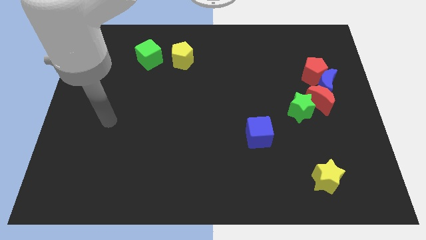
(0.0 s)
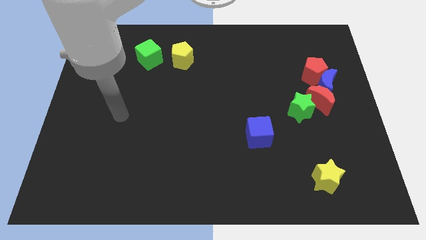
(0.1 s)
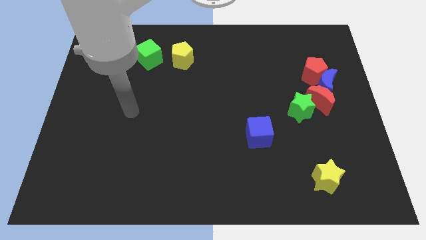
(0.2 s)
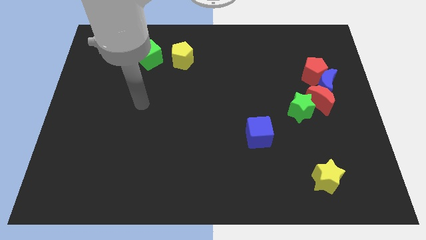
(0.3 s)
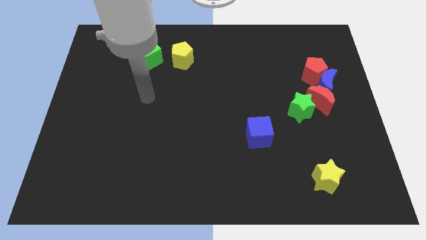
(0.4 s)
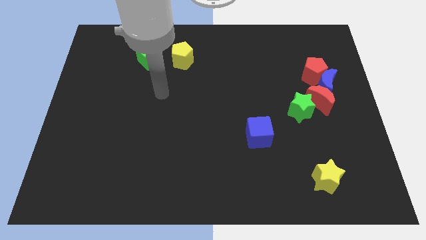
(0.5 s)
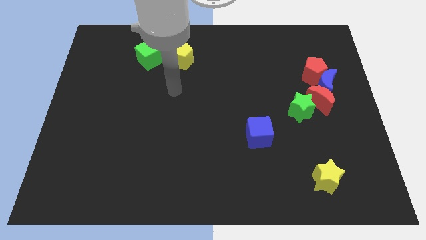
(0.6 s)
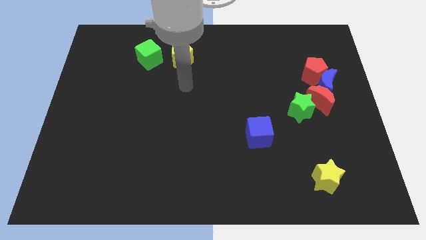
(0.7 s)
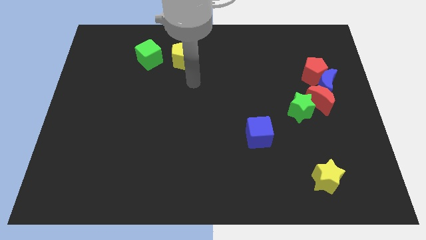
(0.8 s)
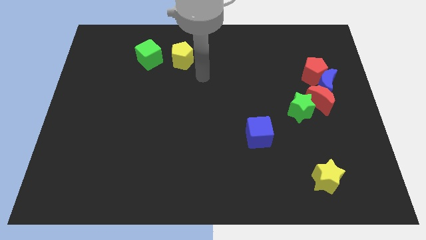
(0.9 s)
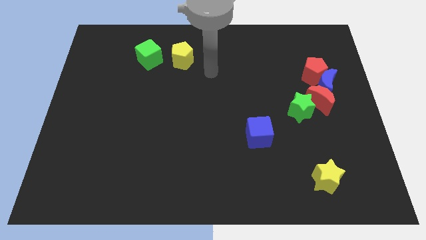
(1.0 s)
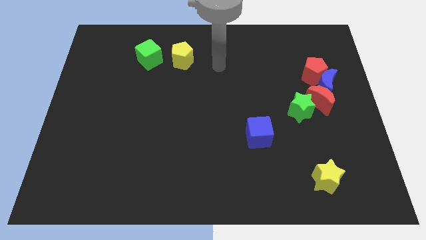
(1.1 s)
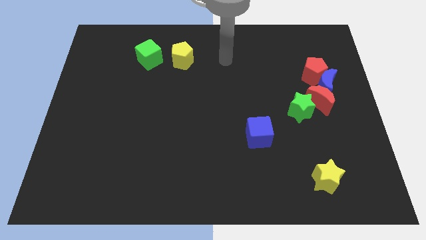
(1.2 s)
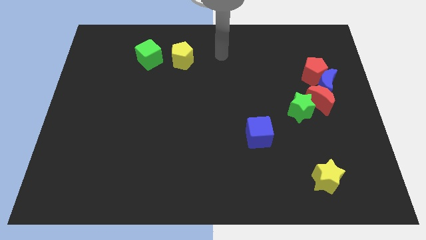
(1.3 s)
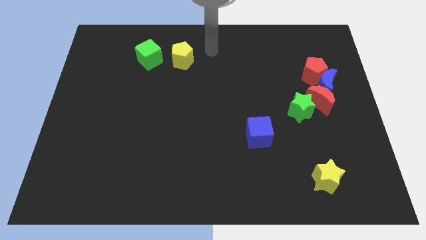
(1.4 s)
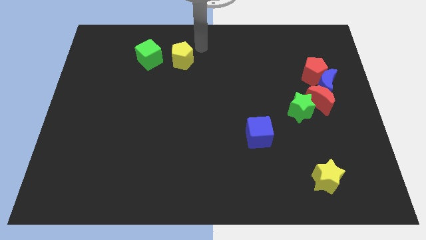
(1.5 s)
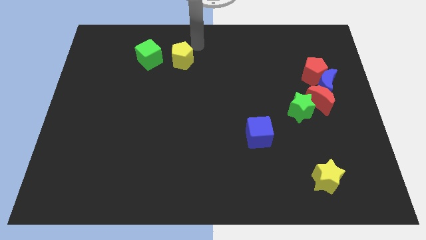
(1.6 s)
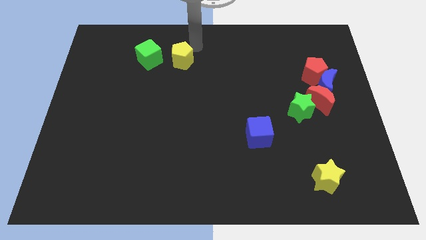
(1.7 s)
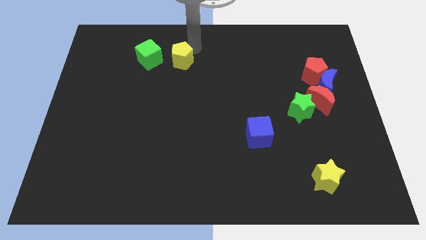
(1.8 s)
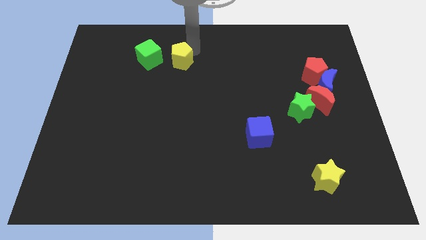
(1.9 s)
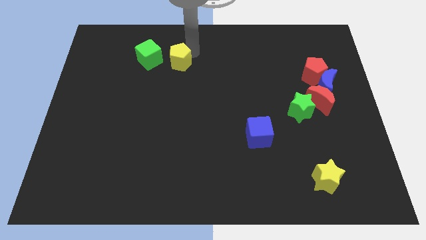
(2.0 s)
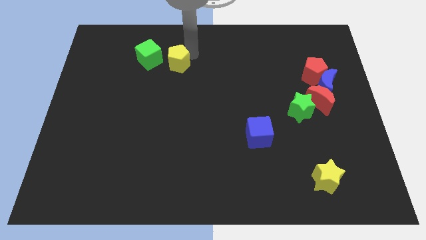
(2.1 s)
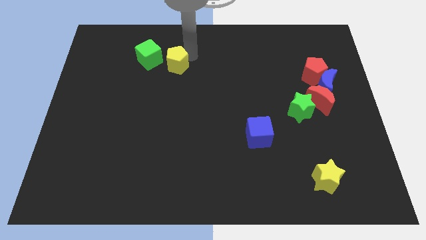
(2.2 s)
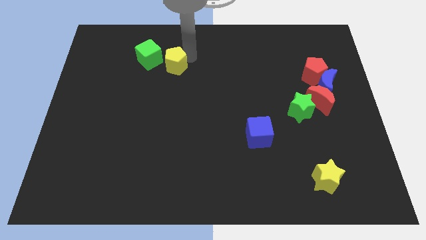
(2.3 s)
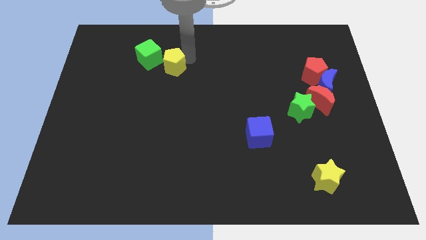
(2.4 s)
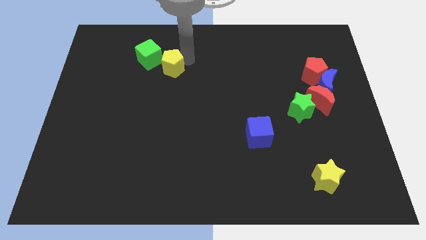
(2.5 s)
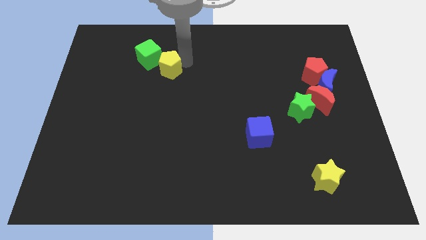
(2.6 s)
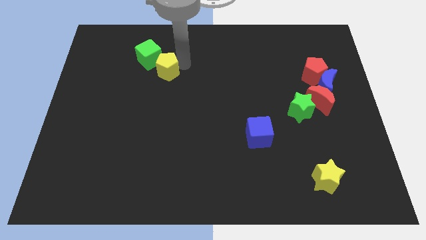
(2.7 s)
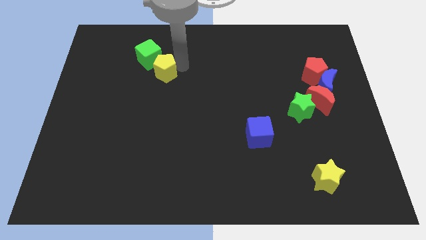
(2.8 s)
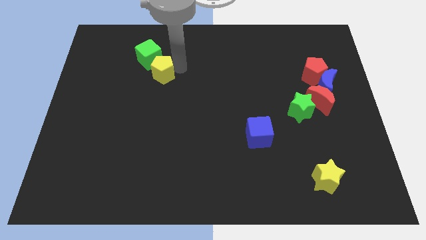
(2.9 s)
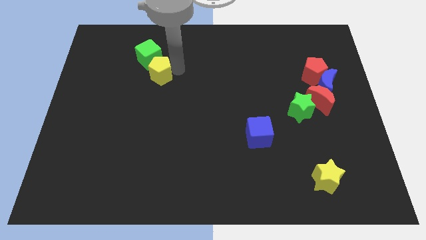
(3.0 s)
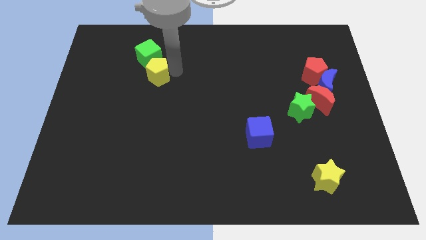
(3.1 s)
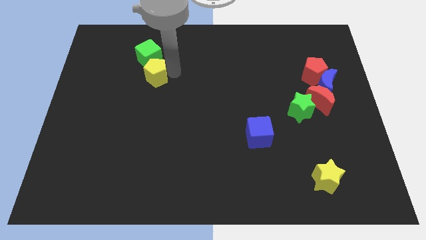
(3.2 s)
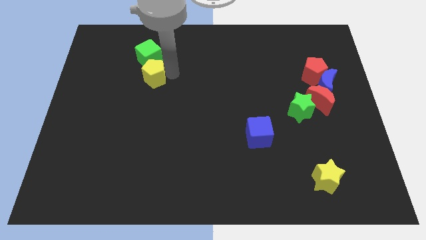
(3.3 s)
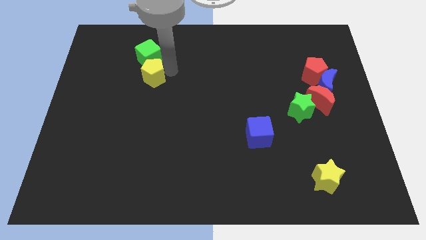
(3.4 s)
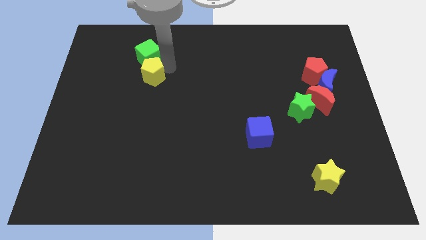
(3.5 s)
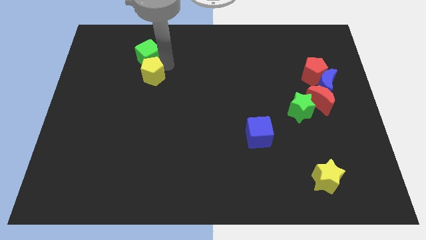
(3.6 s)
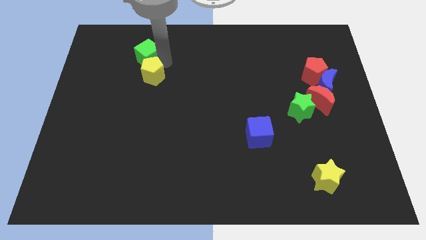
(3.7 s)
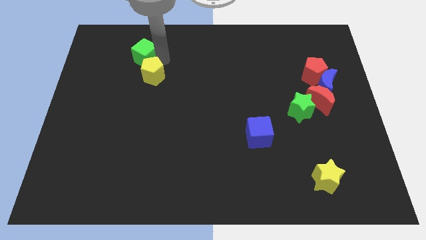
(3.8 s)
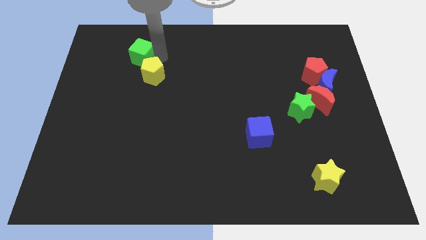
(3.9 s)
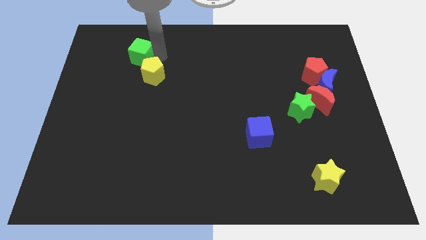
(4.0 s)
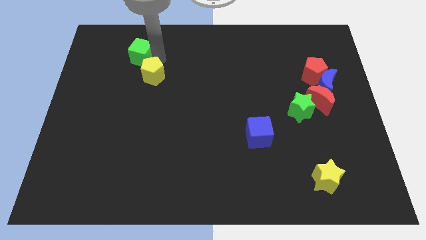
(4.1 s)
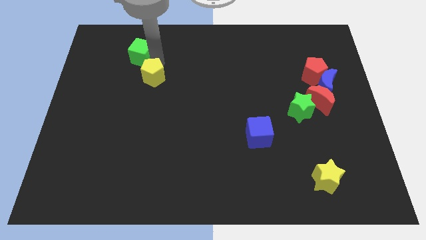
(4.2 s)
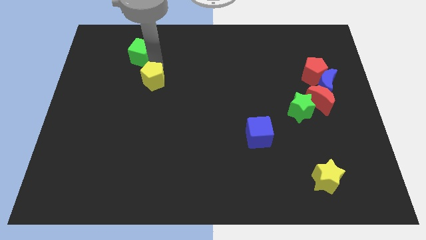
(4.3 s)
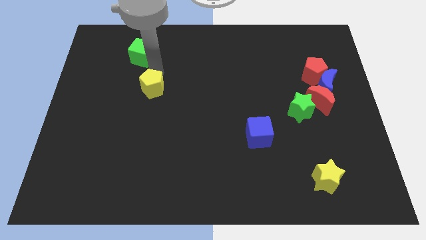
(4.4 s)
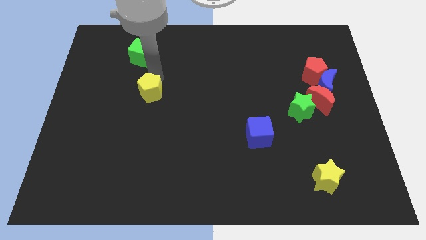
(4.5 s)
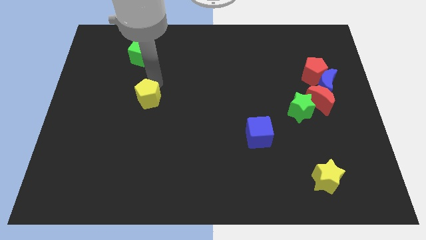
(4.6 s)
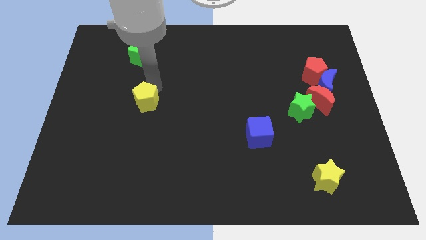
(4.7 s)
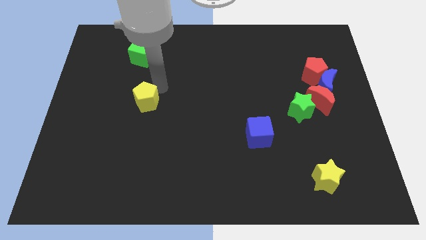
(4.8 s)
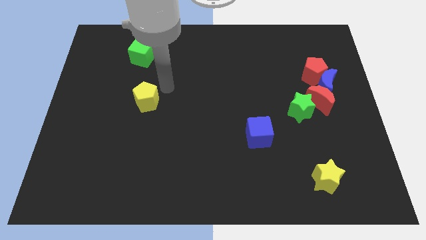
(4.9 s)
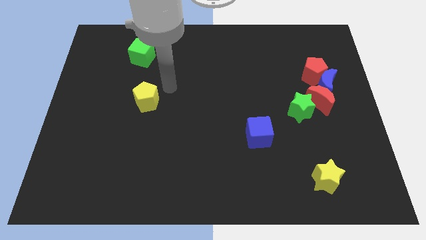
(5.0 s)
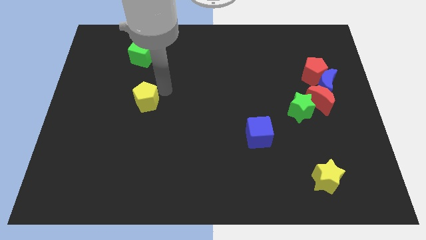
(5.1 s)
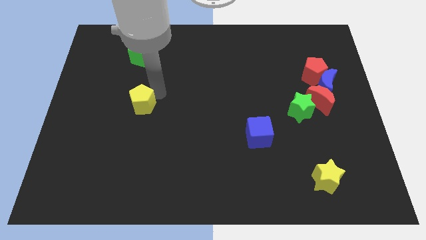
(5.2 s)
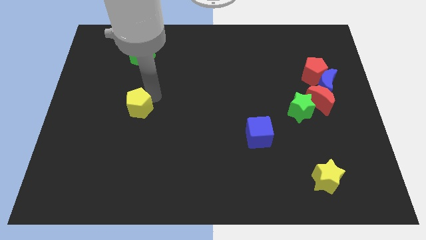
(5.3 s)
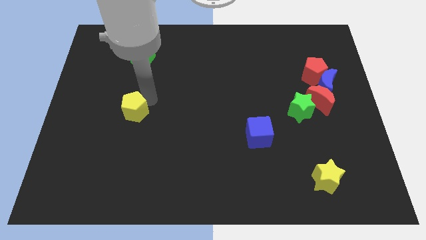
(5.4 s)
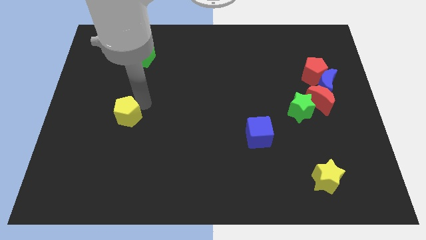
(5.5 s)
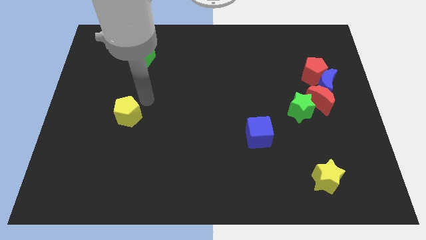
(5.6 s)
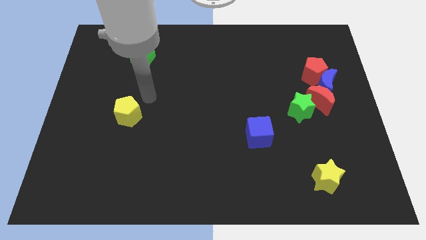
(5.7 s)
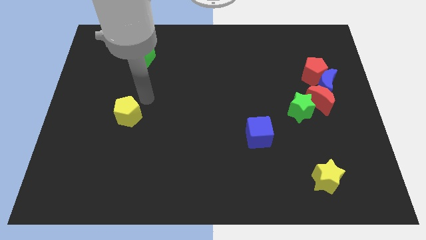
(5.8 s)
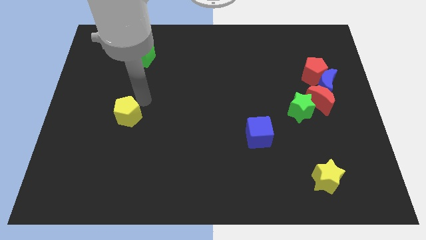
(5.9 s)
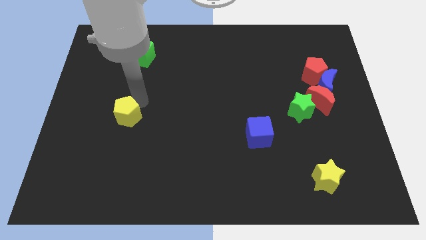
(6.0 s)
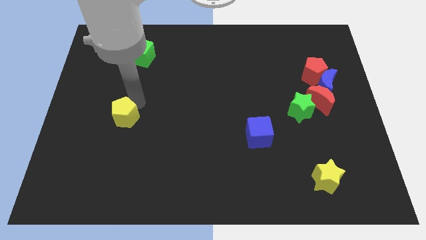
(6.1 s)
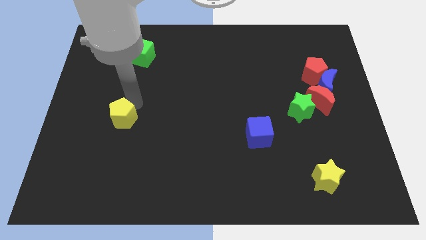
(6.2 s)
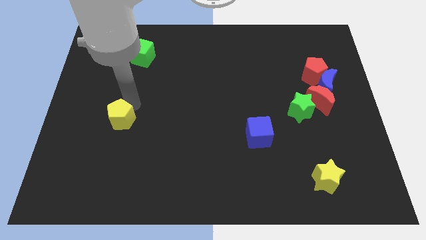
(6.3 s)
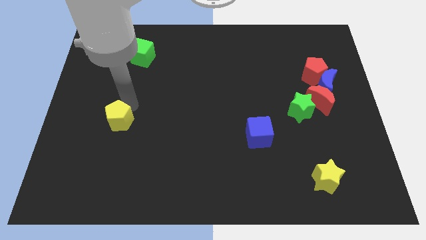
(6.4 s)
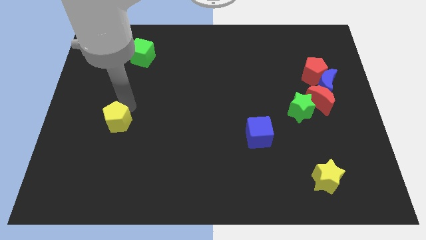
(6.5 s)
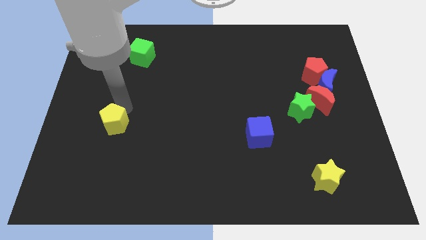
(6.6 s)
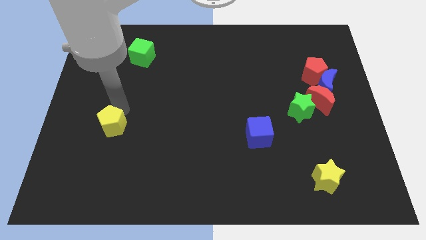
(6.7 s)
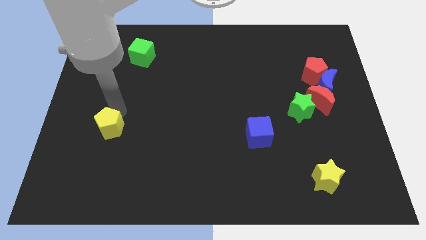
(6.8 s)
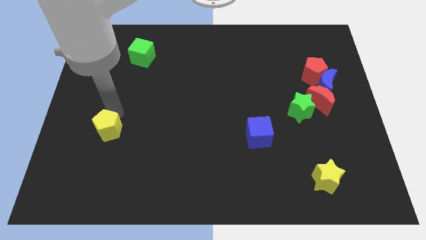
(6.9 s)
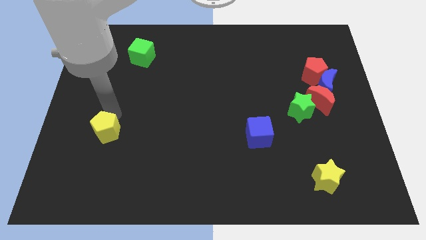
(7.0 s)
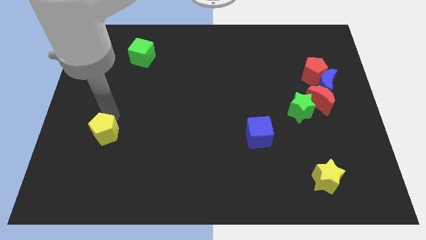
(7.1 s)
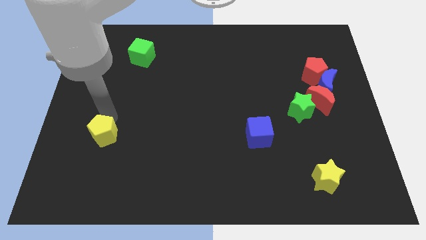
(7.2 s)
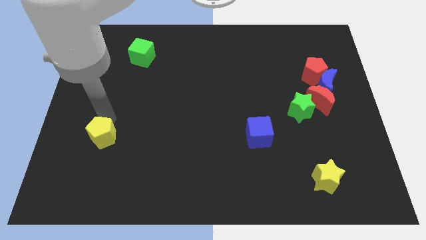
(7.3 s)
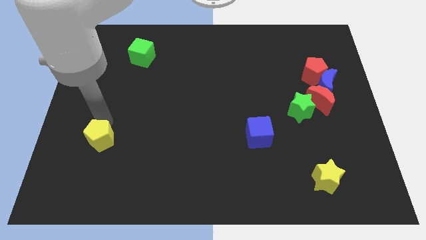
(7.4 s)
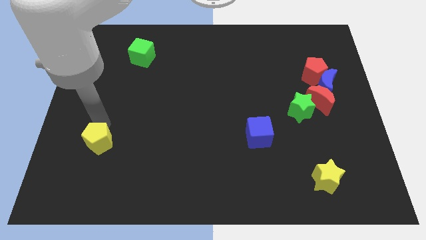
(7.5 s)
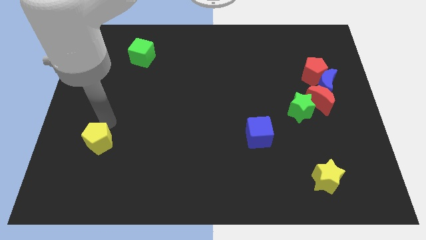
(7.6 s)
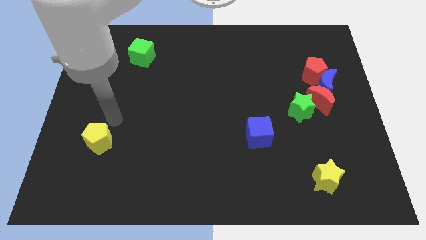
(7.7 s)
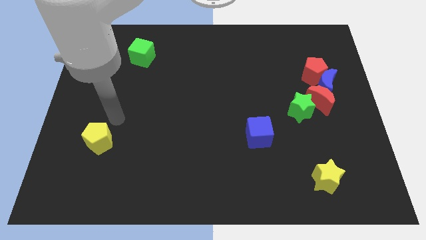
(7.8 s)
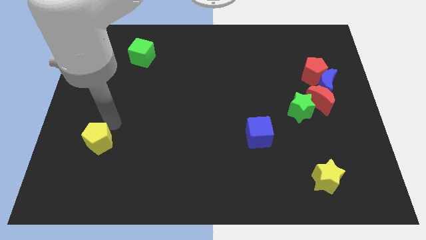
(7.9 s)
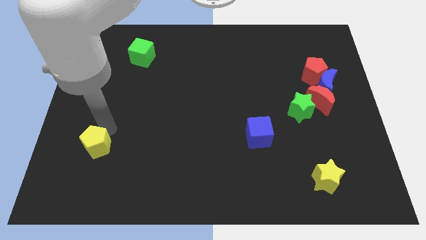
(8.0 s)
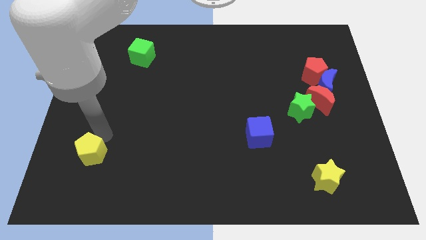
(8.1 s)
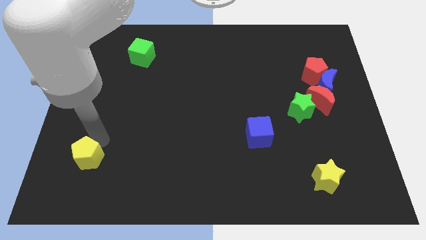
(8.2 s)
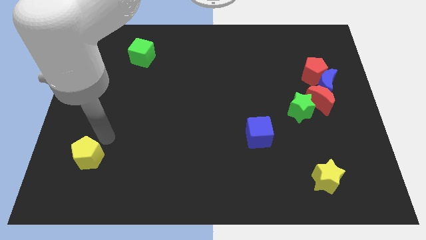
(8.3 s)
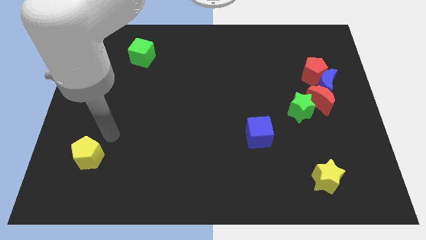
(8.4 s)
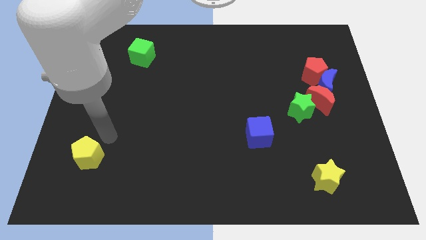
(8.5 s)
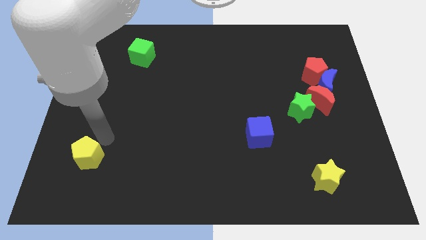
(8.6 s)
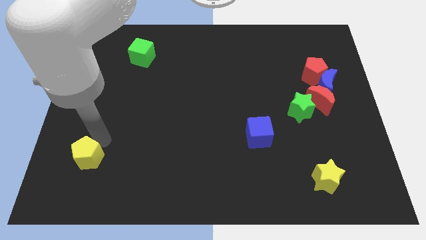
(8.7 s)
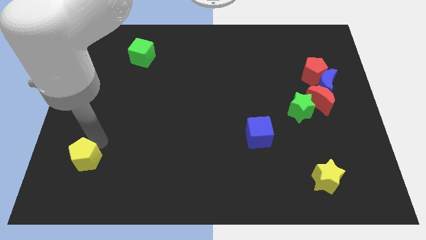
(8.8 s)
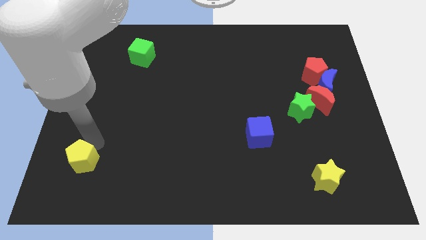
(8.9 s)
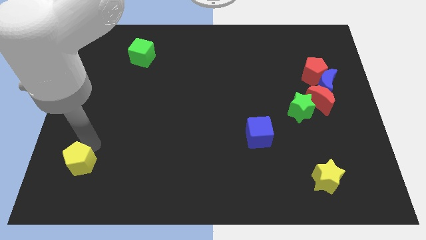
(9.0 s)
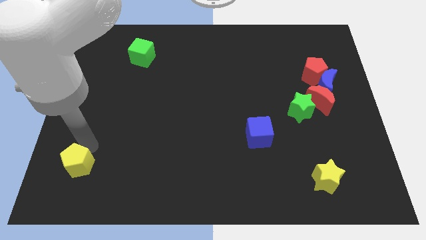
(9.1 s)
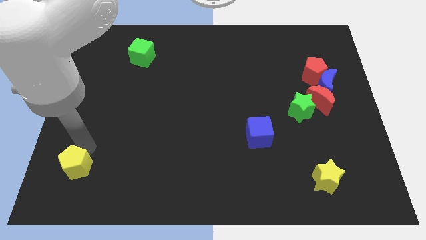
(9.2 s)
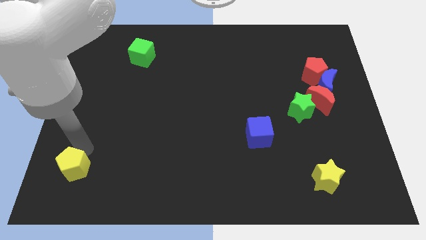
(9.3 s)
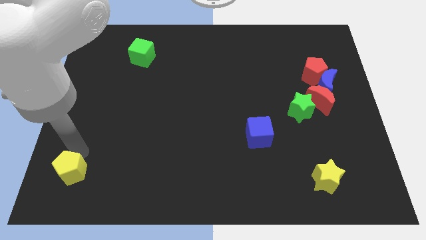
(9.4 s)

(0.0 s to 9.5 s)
push the yellow pentagon to the lower left corner
